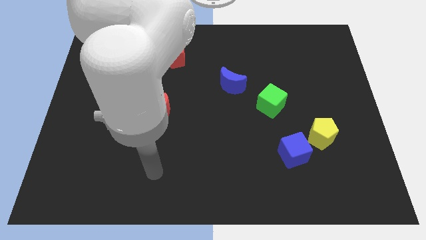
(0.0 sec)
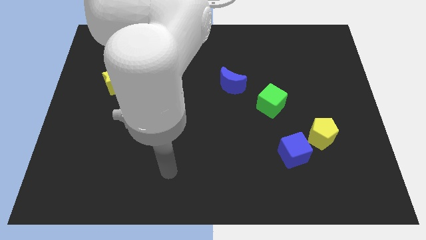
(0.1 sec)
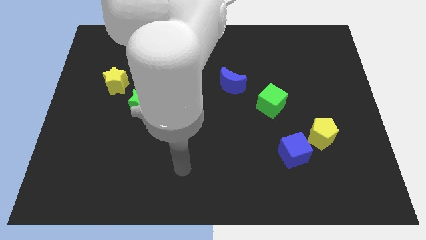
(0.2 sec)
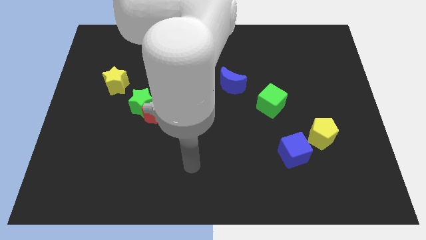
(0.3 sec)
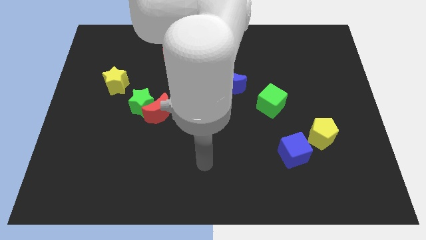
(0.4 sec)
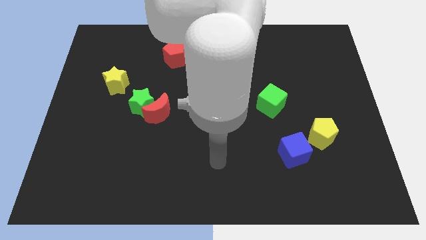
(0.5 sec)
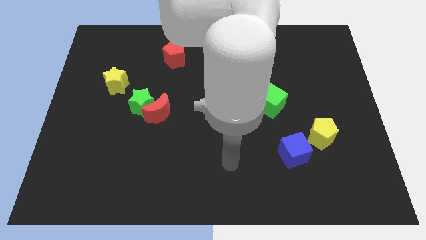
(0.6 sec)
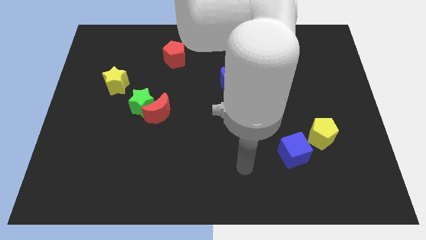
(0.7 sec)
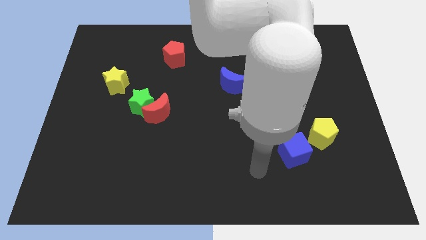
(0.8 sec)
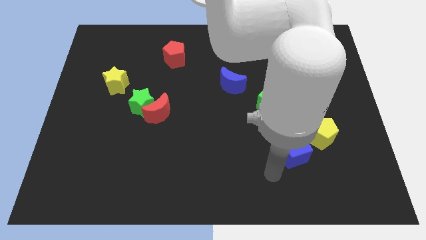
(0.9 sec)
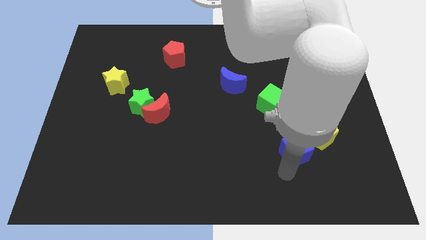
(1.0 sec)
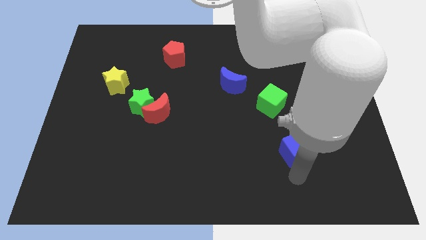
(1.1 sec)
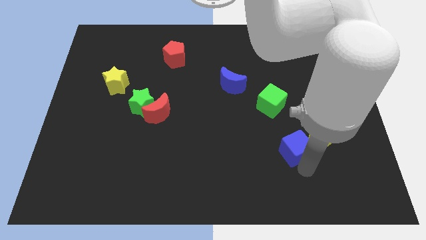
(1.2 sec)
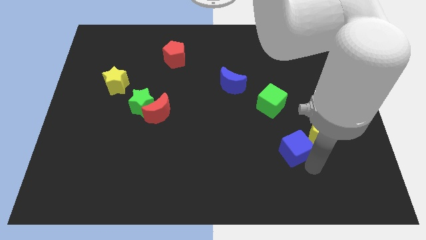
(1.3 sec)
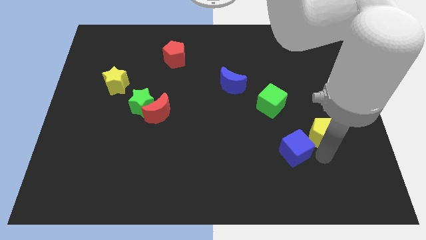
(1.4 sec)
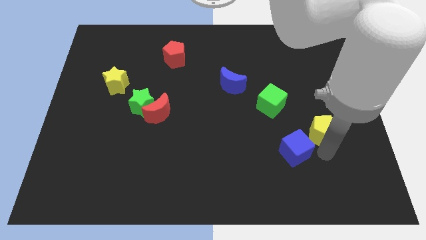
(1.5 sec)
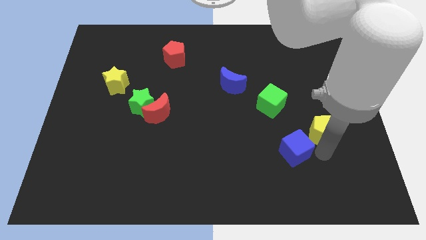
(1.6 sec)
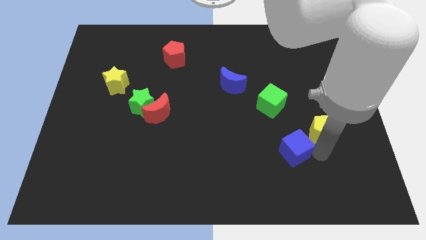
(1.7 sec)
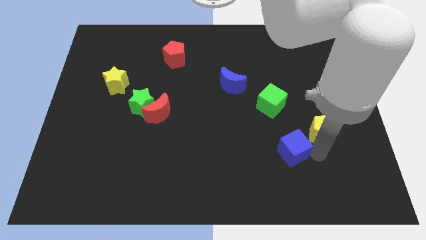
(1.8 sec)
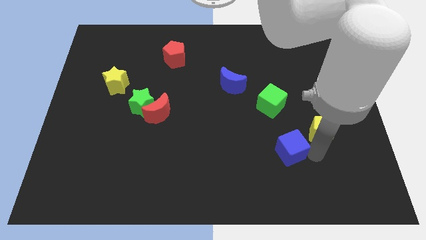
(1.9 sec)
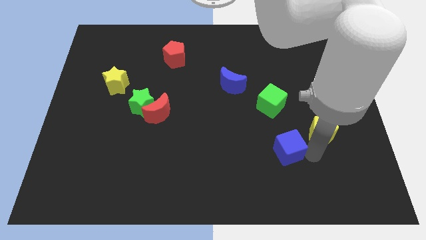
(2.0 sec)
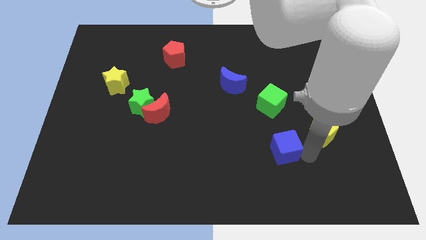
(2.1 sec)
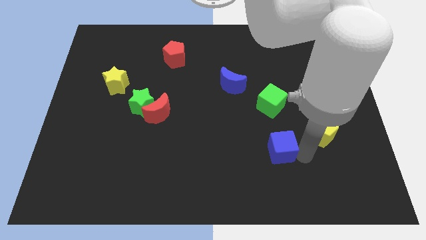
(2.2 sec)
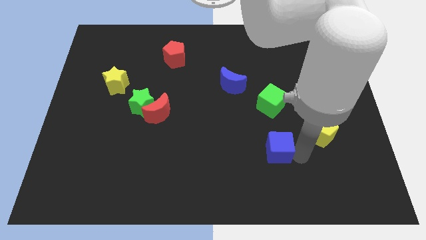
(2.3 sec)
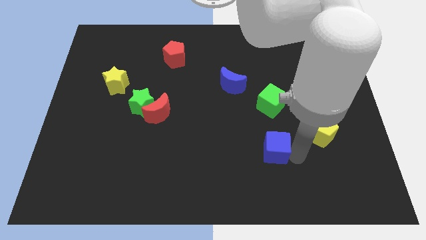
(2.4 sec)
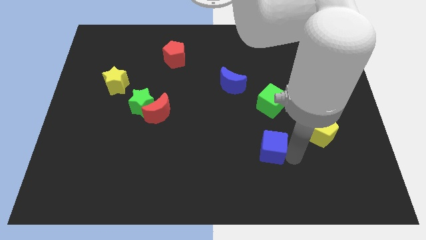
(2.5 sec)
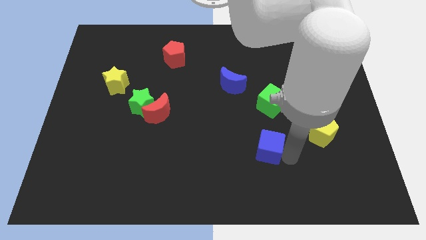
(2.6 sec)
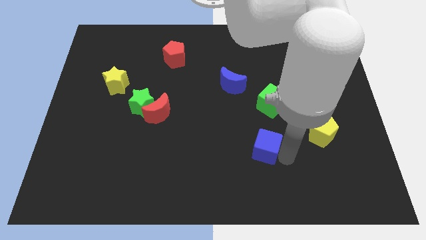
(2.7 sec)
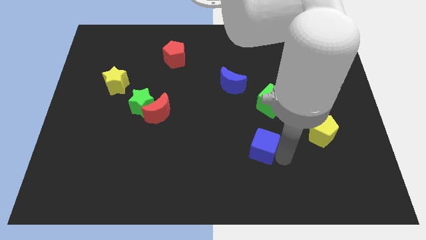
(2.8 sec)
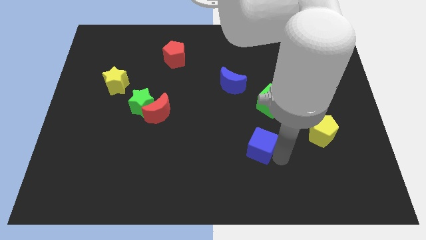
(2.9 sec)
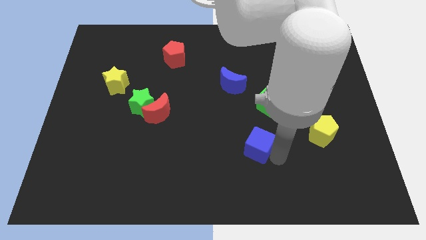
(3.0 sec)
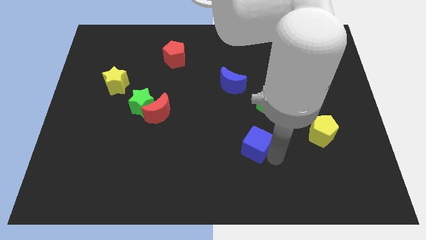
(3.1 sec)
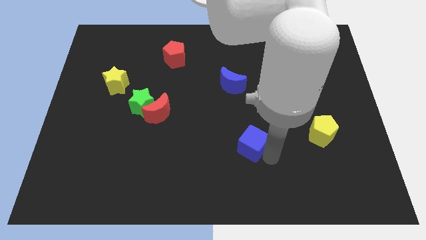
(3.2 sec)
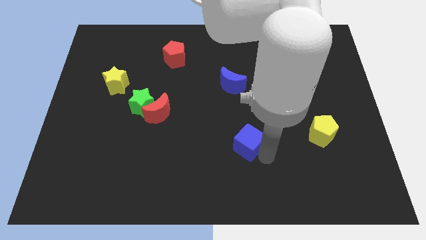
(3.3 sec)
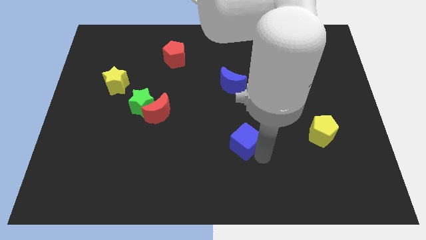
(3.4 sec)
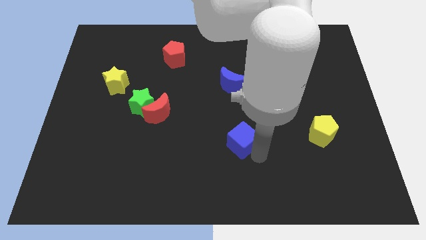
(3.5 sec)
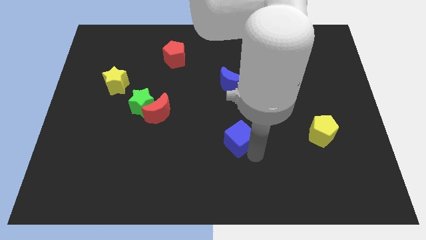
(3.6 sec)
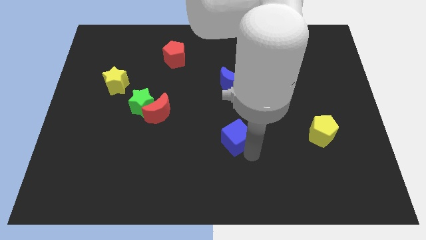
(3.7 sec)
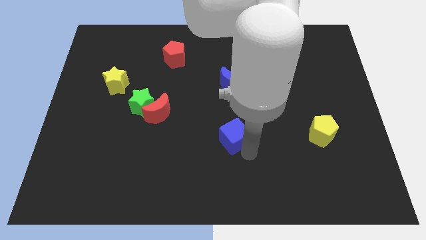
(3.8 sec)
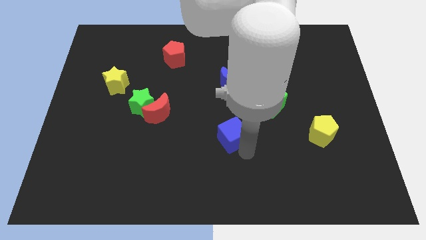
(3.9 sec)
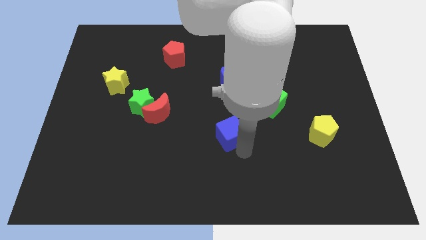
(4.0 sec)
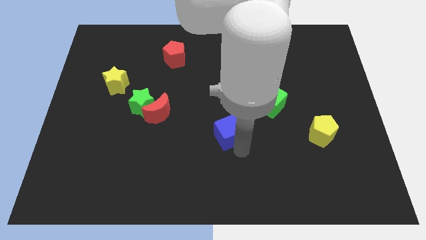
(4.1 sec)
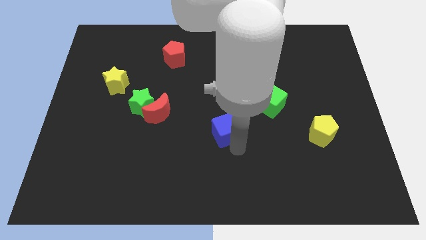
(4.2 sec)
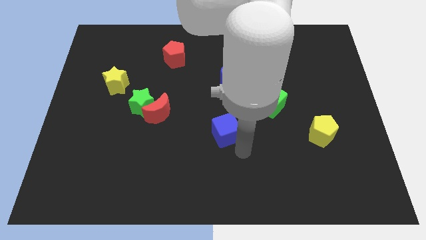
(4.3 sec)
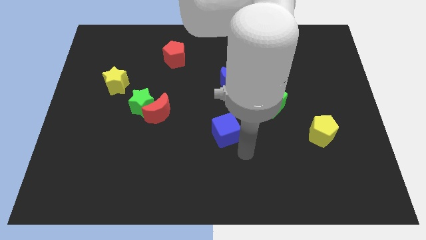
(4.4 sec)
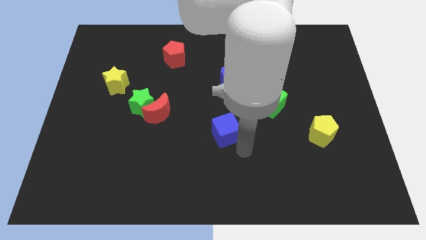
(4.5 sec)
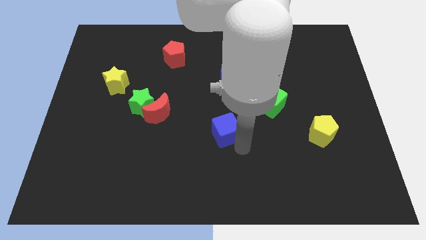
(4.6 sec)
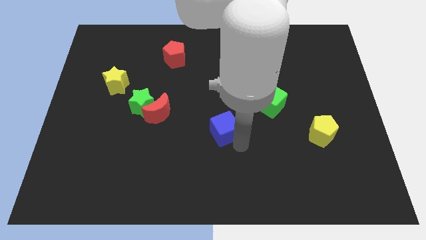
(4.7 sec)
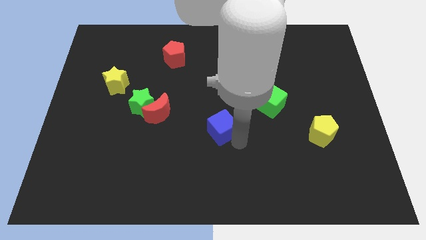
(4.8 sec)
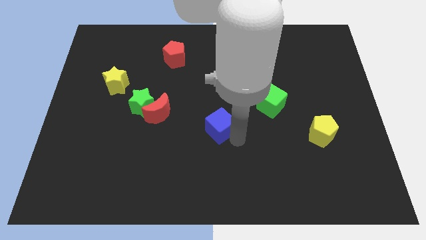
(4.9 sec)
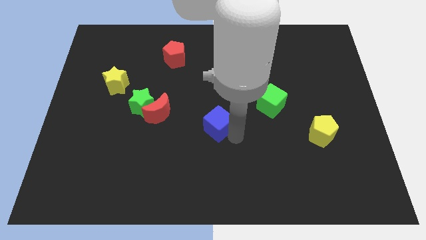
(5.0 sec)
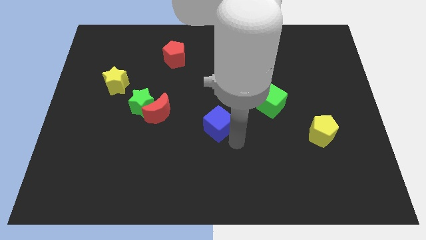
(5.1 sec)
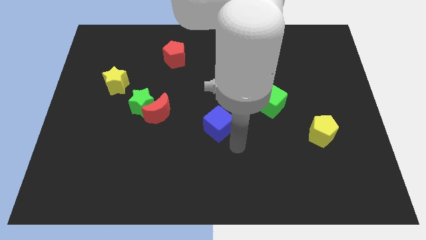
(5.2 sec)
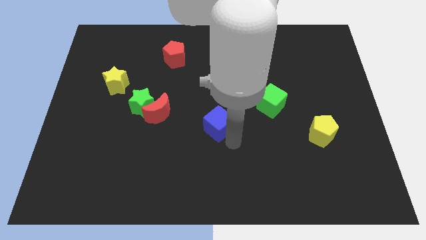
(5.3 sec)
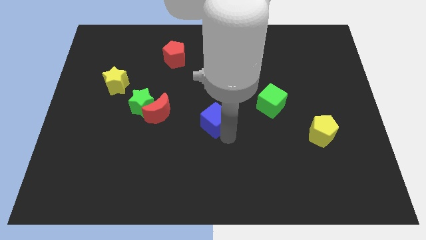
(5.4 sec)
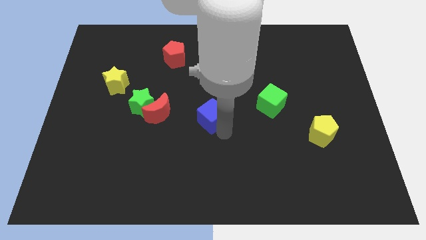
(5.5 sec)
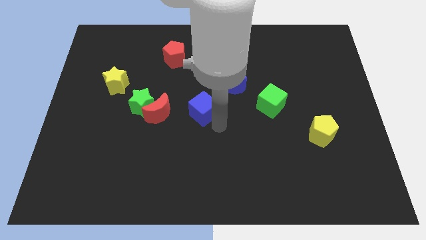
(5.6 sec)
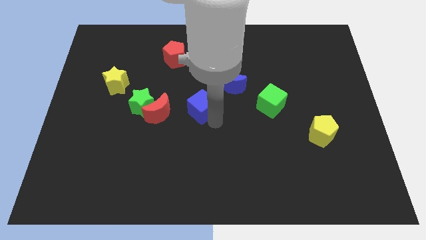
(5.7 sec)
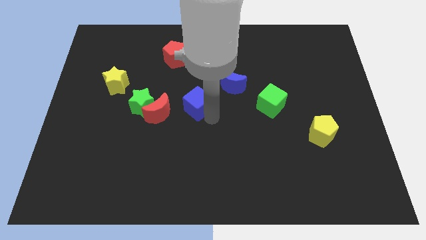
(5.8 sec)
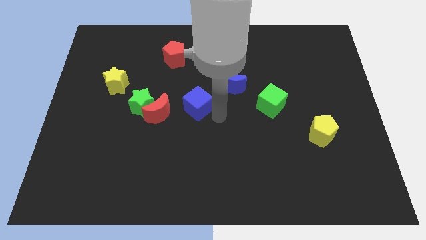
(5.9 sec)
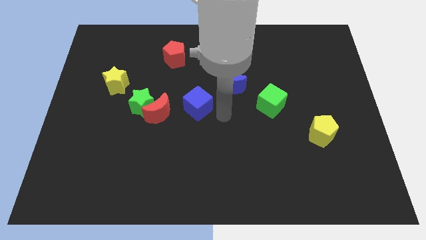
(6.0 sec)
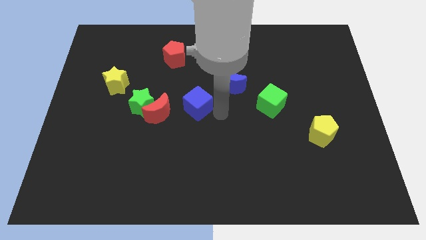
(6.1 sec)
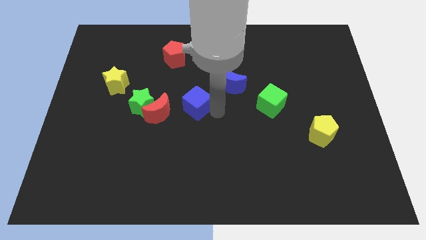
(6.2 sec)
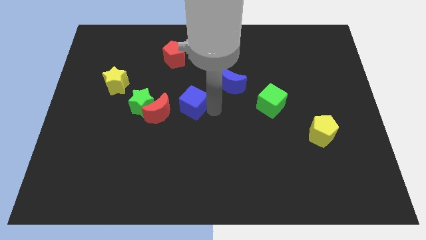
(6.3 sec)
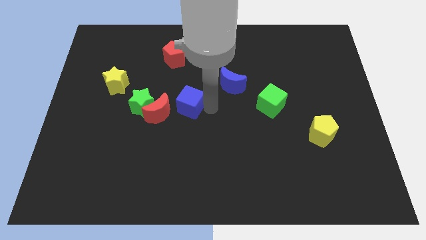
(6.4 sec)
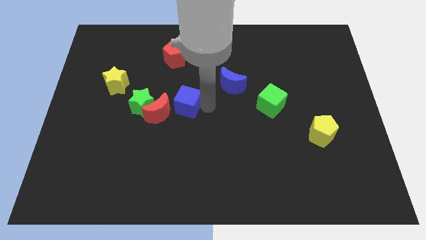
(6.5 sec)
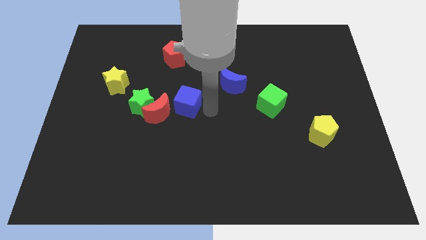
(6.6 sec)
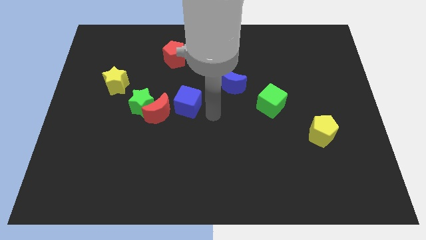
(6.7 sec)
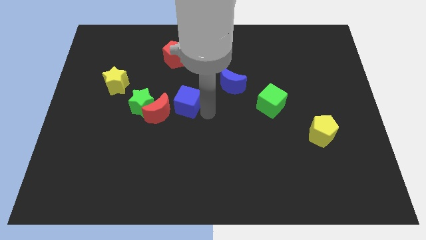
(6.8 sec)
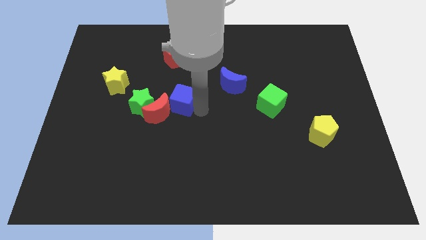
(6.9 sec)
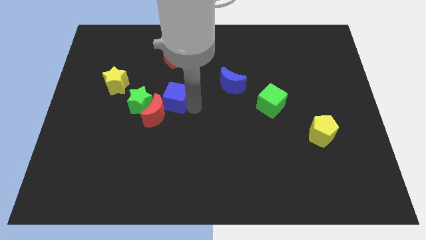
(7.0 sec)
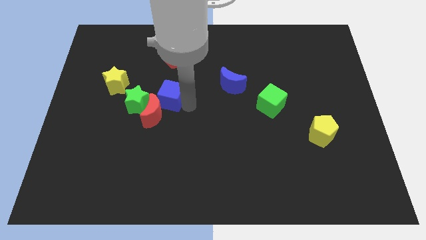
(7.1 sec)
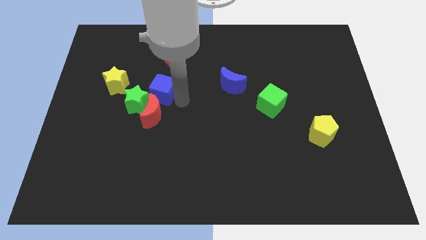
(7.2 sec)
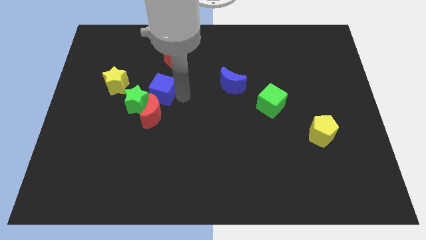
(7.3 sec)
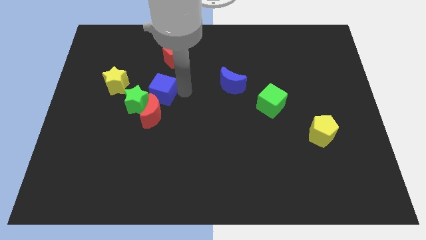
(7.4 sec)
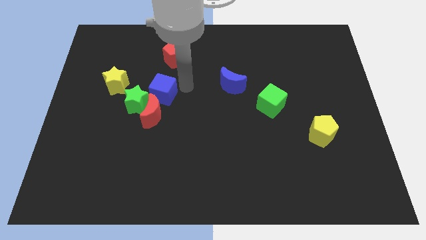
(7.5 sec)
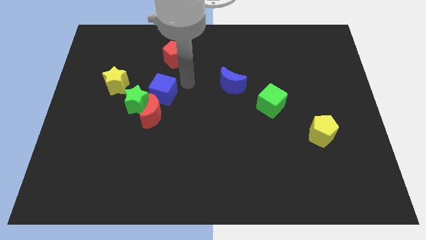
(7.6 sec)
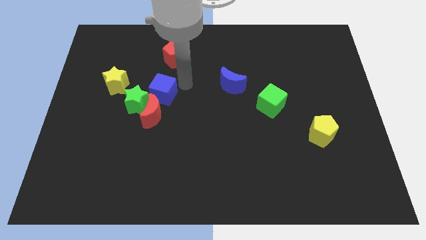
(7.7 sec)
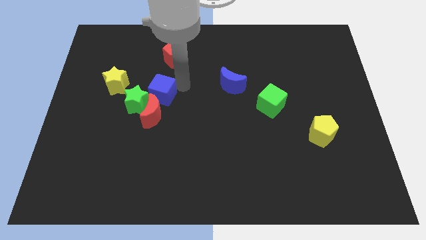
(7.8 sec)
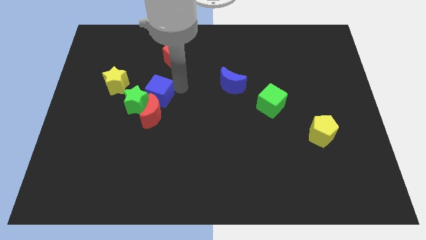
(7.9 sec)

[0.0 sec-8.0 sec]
push the blue cube close to the green star
